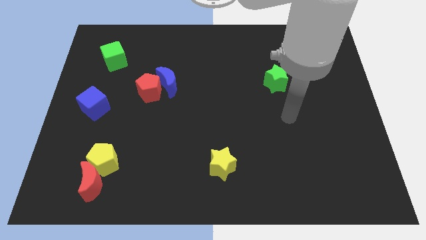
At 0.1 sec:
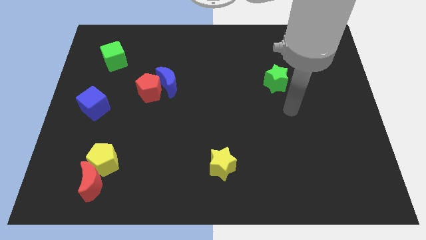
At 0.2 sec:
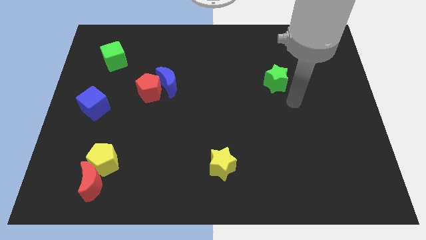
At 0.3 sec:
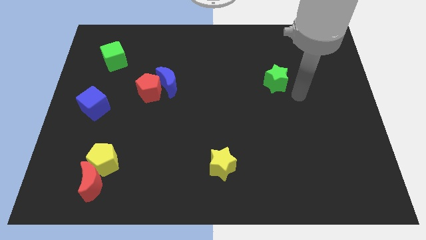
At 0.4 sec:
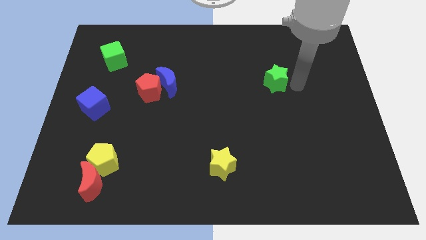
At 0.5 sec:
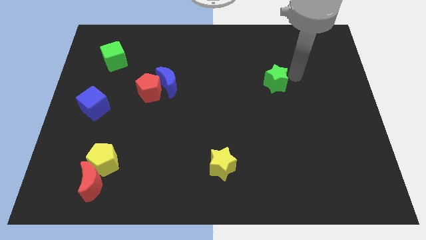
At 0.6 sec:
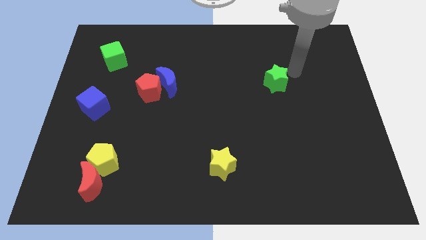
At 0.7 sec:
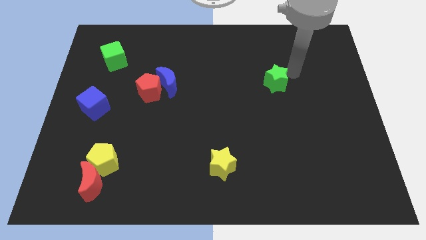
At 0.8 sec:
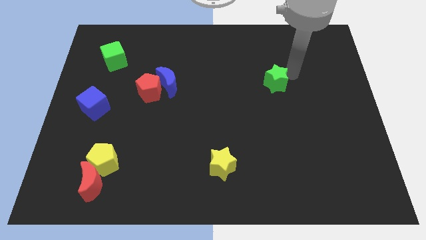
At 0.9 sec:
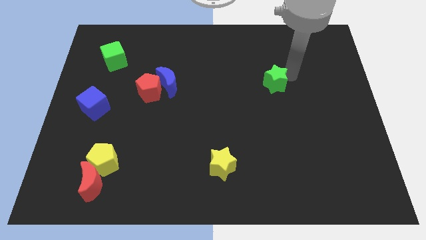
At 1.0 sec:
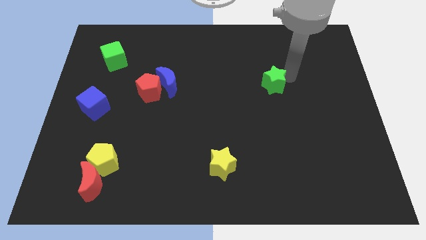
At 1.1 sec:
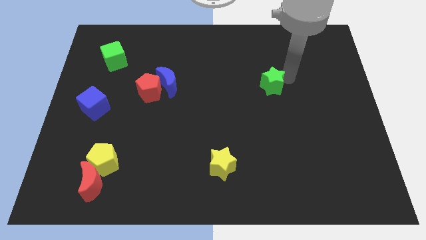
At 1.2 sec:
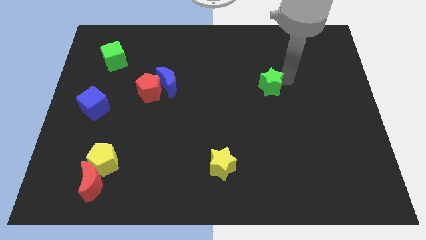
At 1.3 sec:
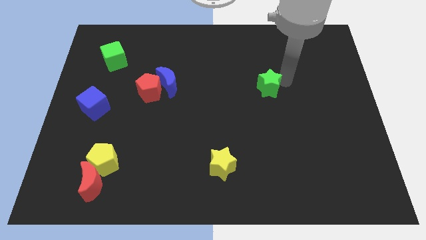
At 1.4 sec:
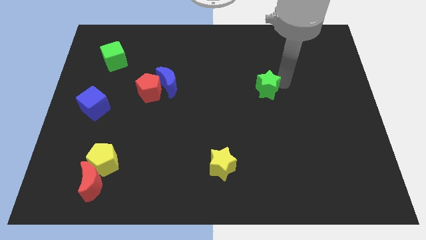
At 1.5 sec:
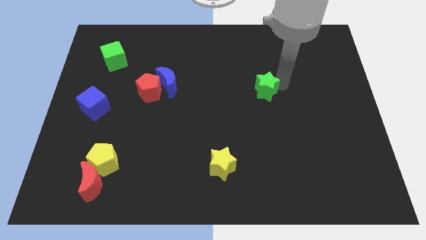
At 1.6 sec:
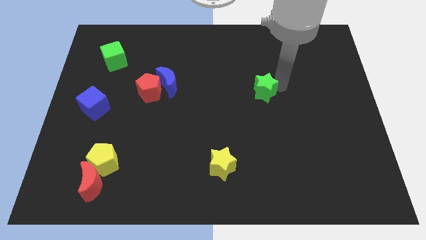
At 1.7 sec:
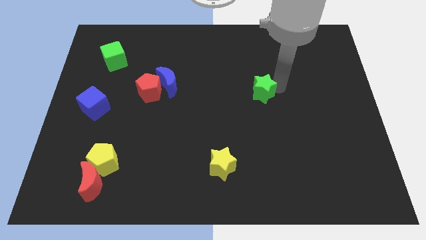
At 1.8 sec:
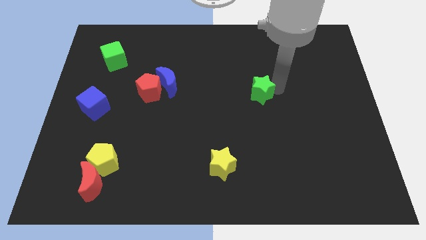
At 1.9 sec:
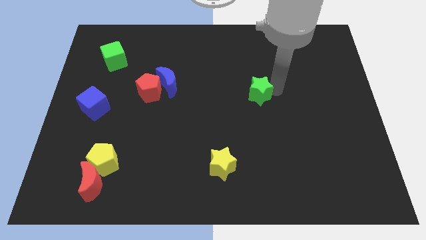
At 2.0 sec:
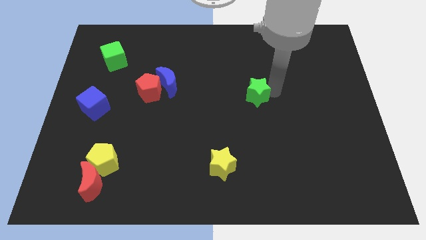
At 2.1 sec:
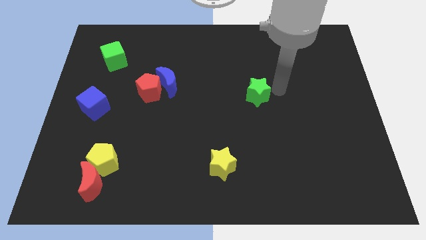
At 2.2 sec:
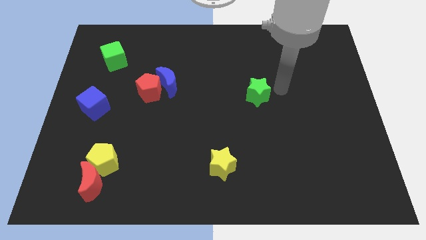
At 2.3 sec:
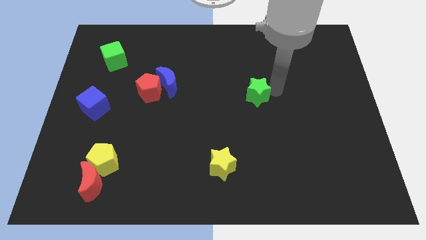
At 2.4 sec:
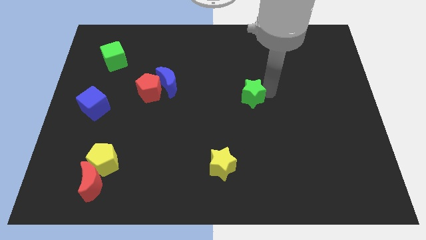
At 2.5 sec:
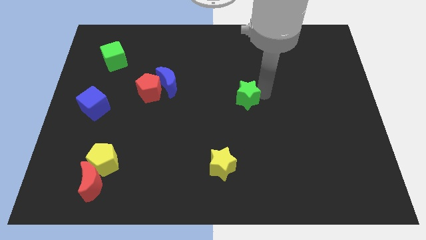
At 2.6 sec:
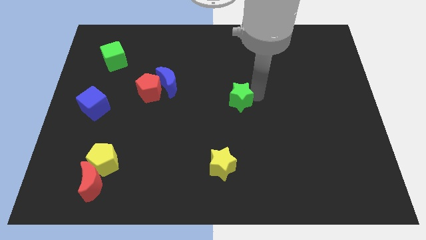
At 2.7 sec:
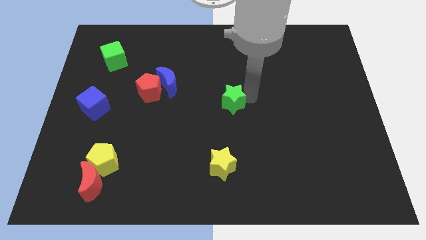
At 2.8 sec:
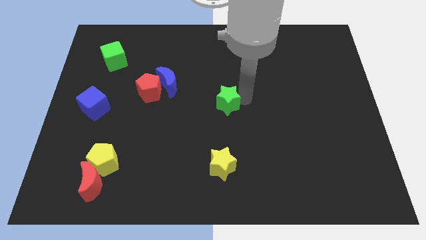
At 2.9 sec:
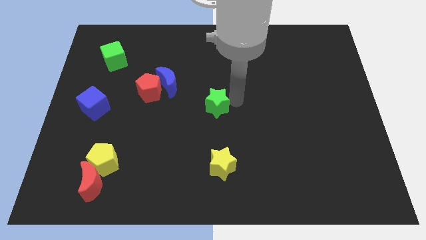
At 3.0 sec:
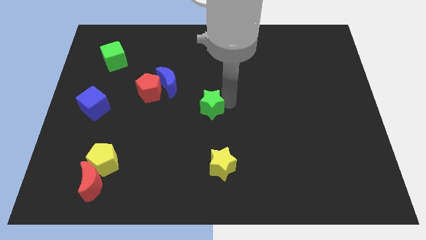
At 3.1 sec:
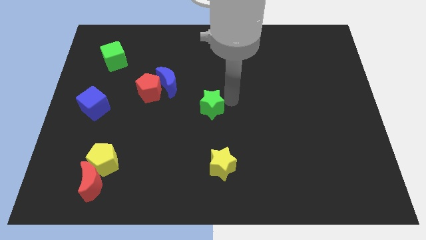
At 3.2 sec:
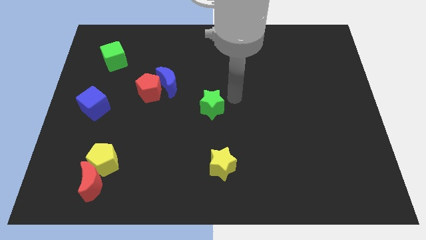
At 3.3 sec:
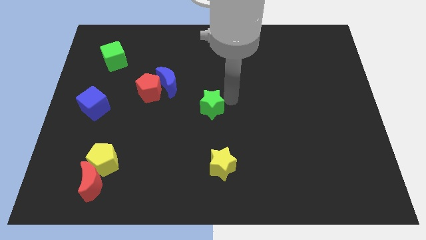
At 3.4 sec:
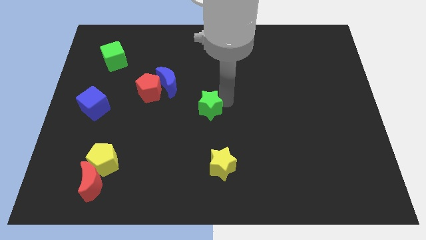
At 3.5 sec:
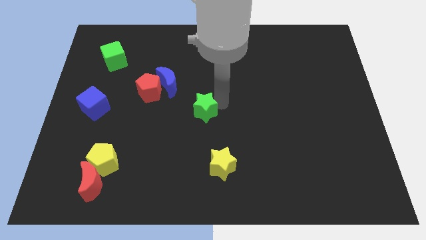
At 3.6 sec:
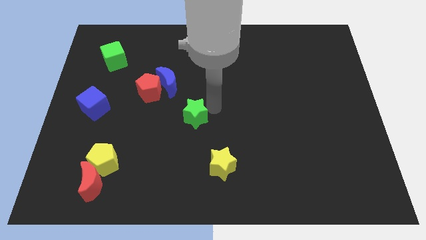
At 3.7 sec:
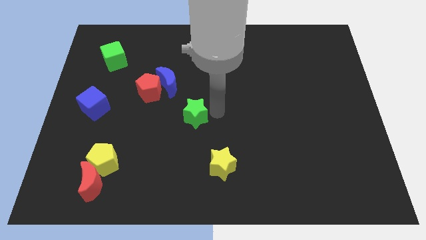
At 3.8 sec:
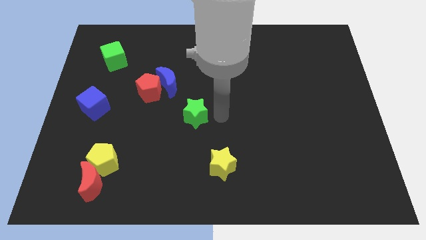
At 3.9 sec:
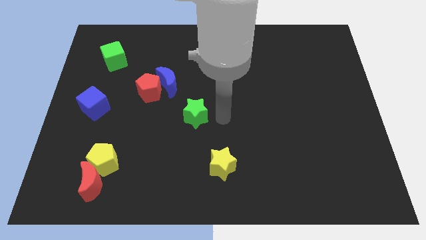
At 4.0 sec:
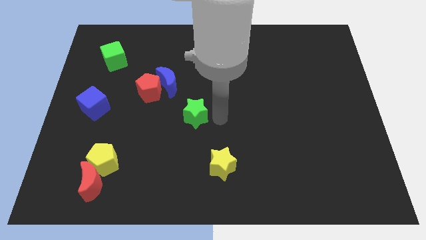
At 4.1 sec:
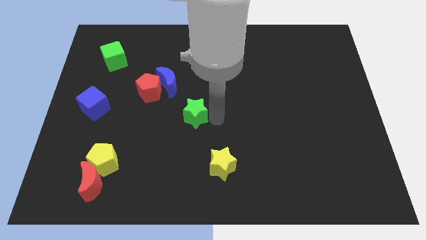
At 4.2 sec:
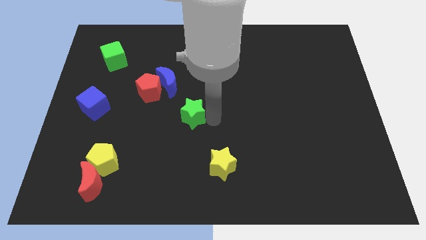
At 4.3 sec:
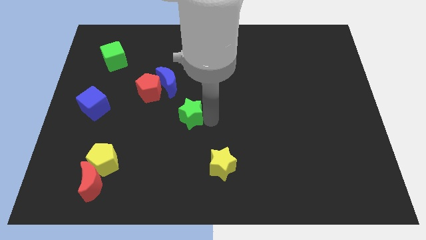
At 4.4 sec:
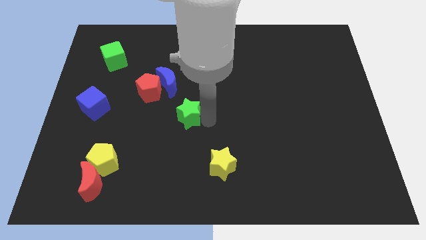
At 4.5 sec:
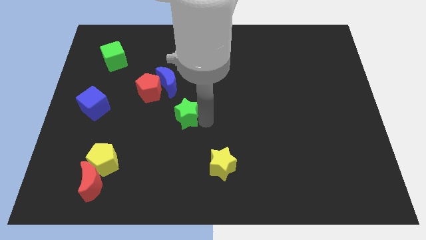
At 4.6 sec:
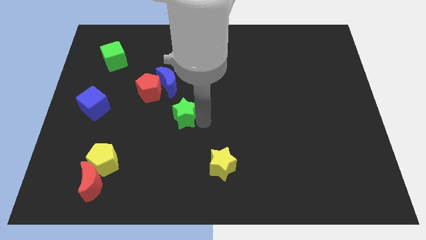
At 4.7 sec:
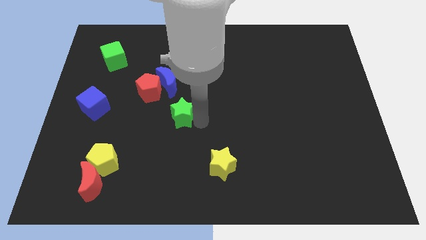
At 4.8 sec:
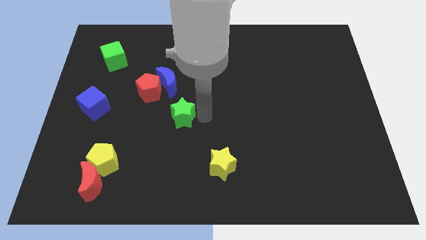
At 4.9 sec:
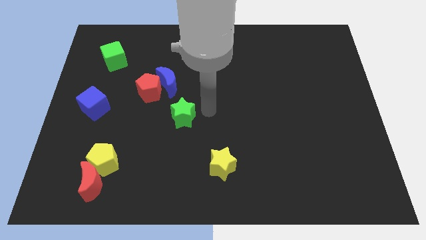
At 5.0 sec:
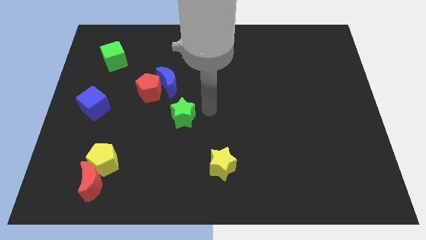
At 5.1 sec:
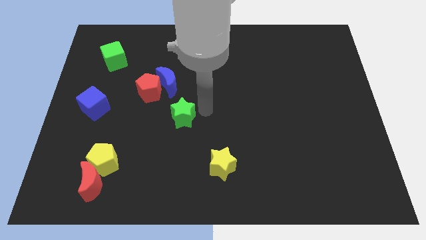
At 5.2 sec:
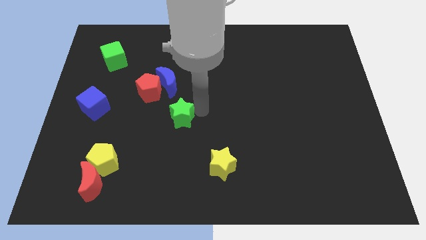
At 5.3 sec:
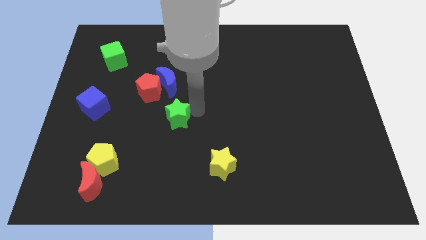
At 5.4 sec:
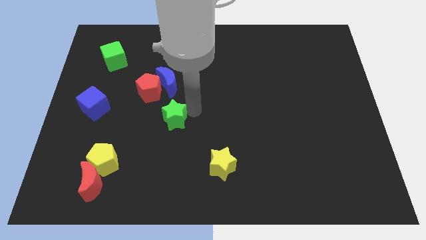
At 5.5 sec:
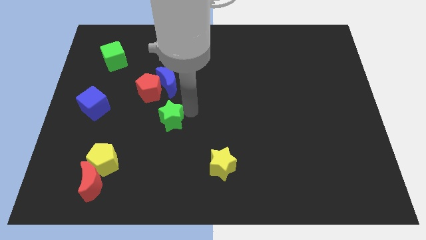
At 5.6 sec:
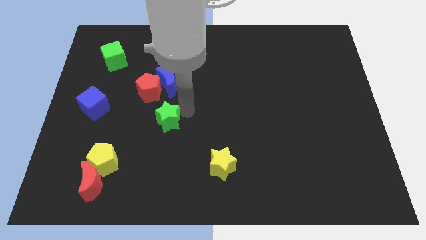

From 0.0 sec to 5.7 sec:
push the green star to the bottom of the red pentagon

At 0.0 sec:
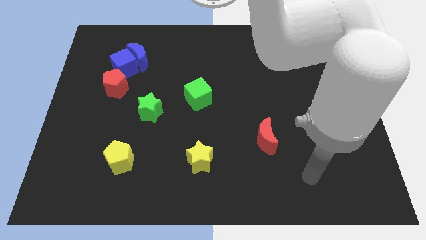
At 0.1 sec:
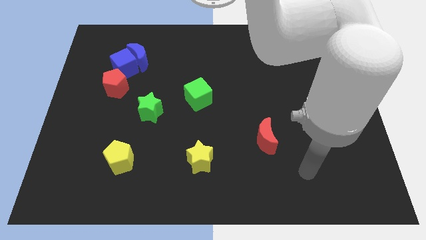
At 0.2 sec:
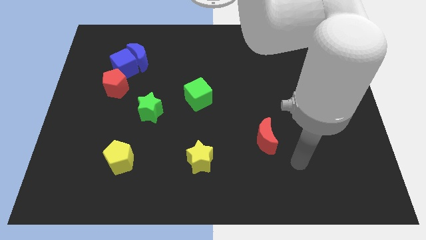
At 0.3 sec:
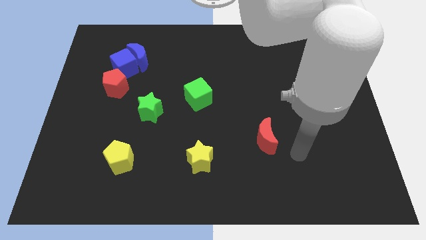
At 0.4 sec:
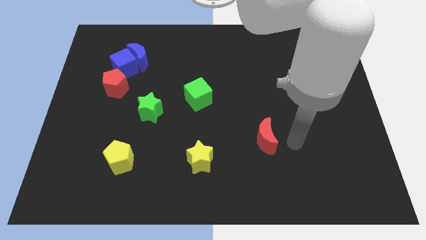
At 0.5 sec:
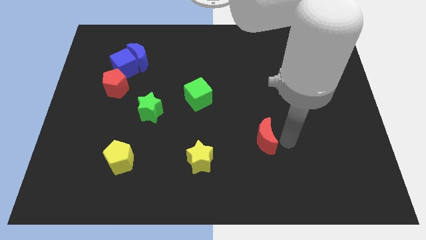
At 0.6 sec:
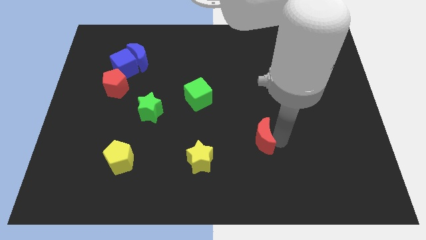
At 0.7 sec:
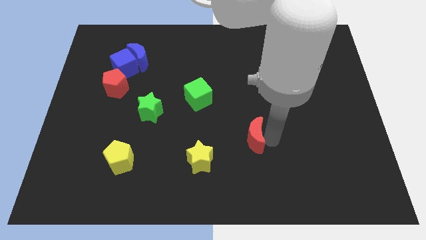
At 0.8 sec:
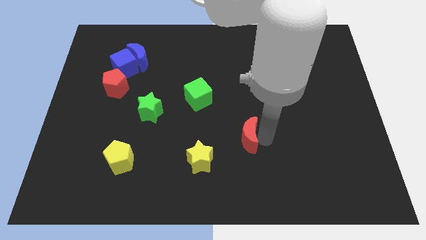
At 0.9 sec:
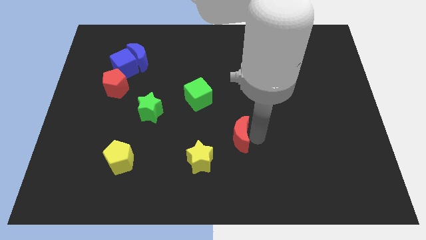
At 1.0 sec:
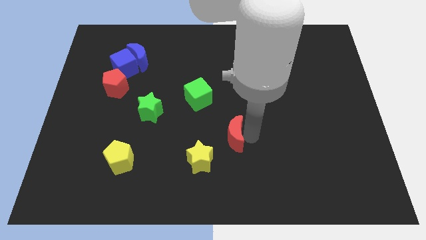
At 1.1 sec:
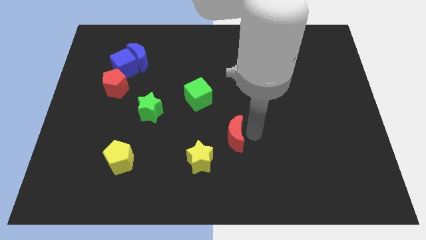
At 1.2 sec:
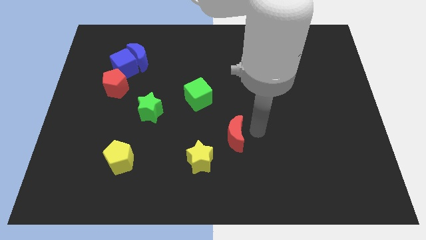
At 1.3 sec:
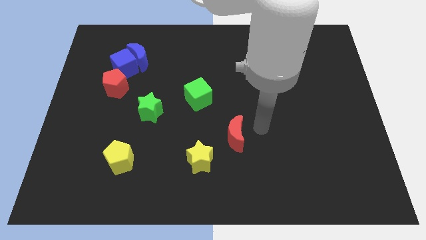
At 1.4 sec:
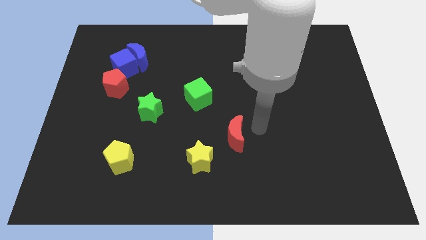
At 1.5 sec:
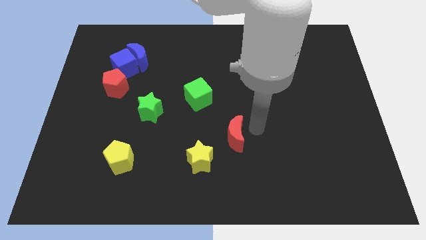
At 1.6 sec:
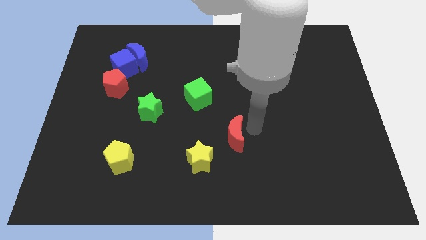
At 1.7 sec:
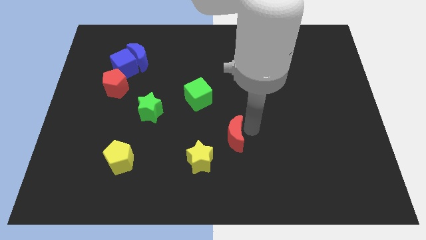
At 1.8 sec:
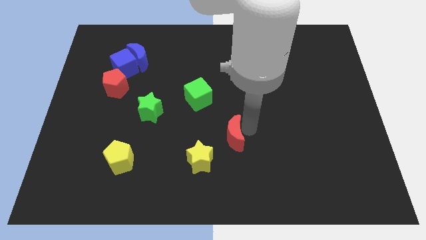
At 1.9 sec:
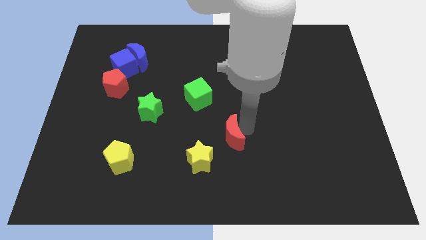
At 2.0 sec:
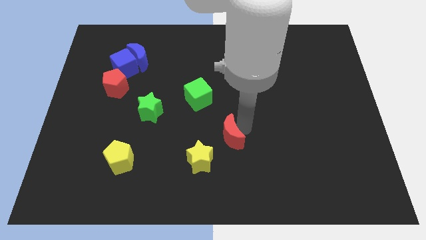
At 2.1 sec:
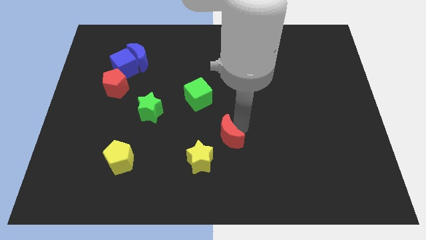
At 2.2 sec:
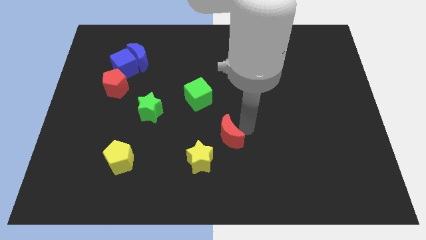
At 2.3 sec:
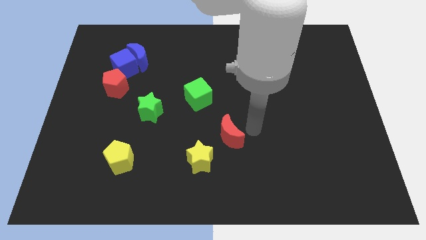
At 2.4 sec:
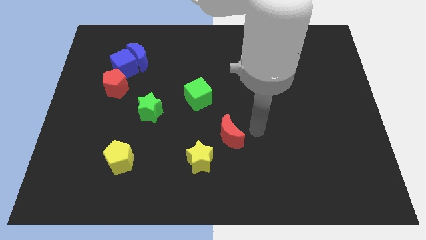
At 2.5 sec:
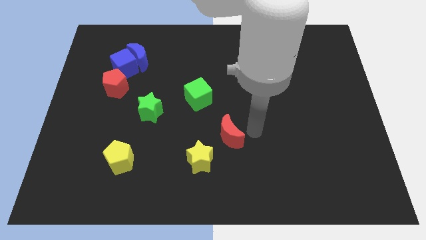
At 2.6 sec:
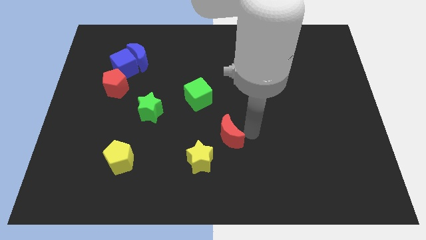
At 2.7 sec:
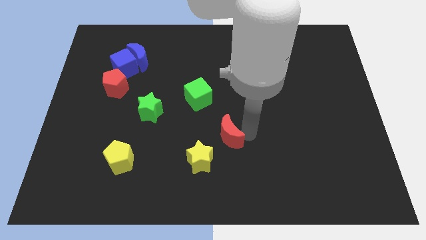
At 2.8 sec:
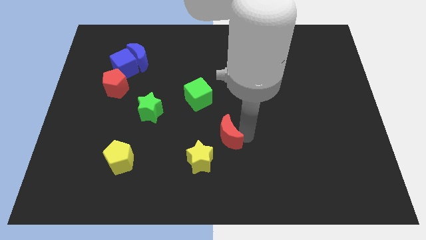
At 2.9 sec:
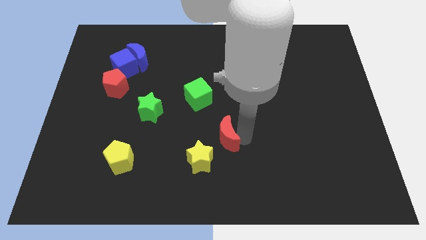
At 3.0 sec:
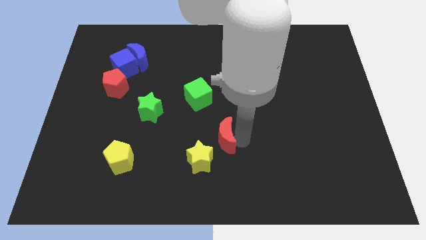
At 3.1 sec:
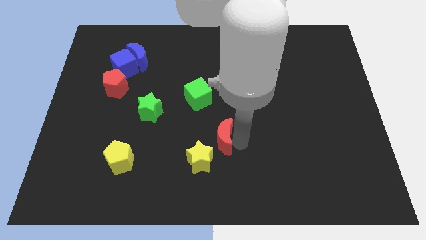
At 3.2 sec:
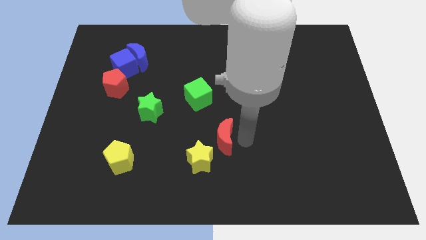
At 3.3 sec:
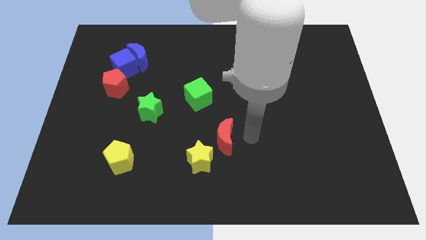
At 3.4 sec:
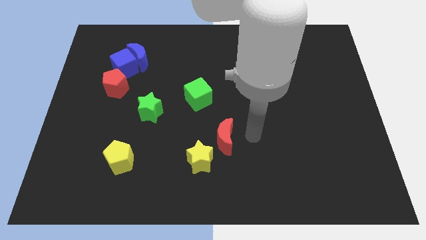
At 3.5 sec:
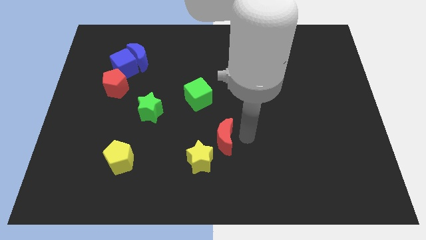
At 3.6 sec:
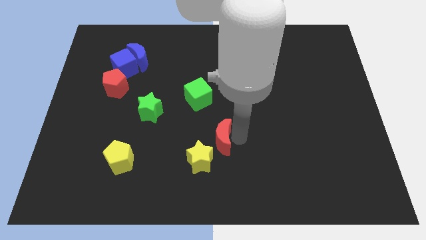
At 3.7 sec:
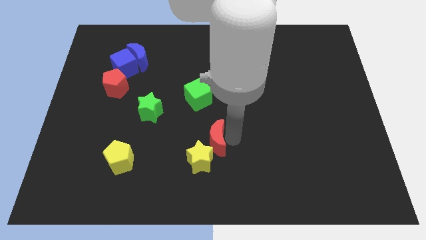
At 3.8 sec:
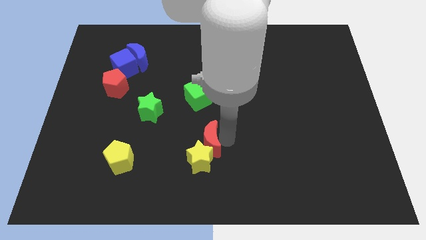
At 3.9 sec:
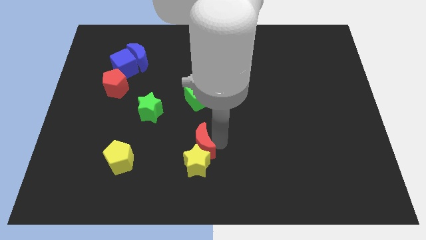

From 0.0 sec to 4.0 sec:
move the red moon diagonally up and to the left of the yellow star
